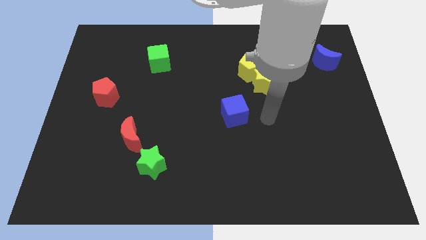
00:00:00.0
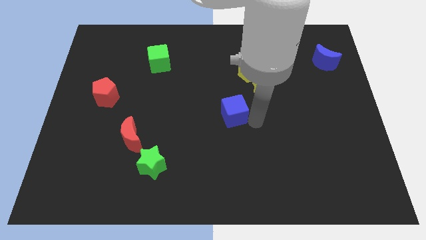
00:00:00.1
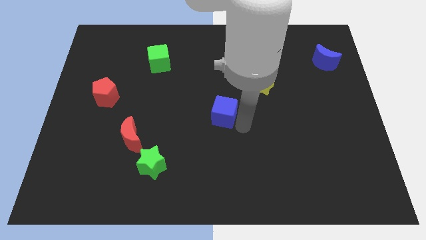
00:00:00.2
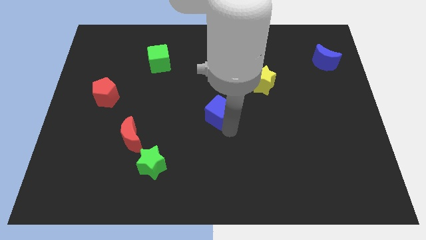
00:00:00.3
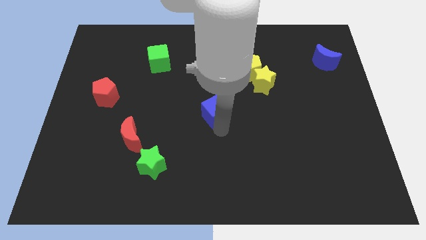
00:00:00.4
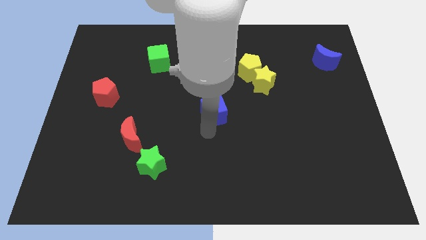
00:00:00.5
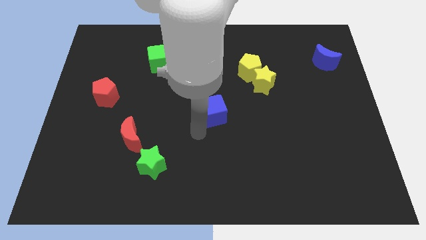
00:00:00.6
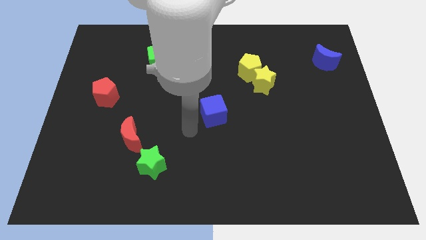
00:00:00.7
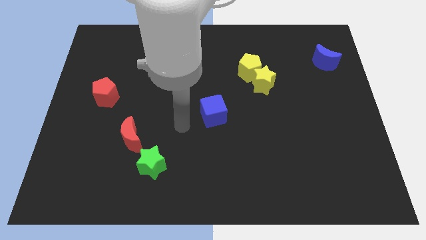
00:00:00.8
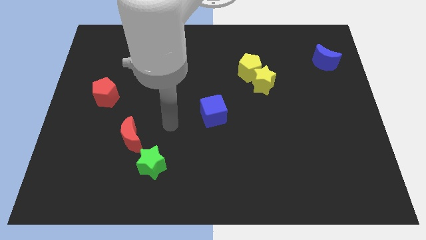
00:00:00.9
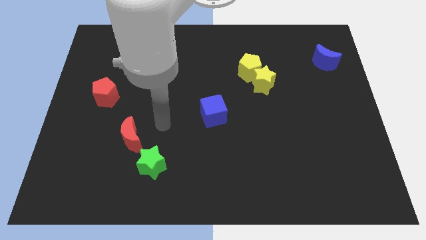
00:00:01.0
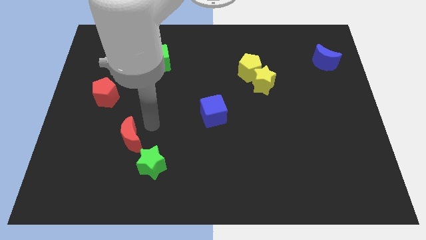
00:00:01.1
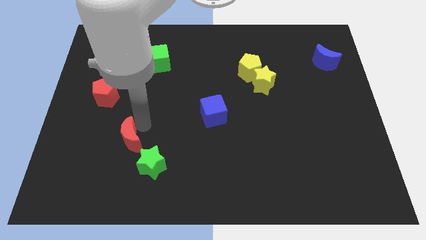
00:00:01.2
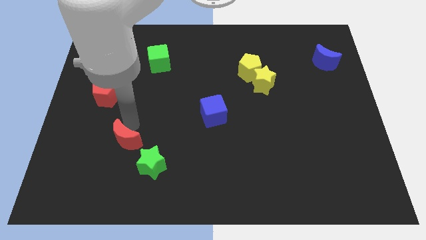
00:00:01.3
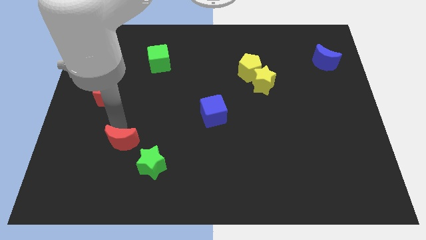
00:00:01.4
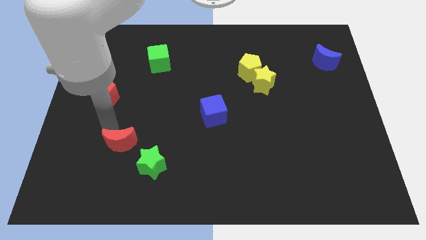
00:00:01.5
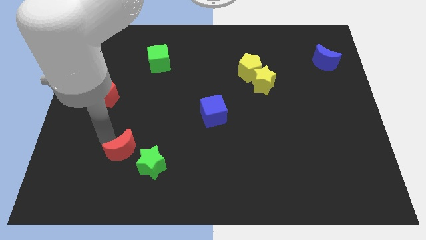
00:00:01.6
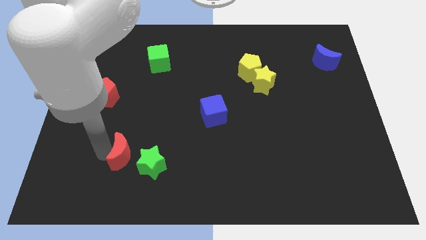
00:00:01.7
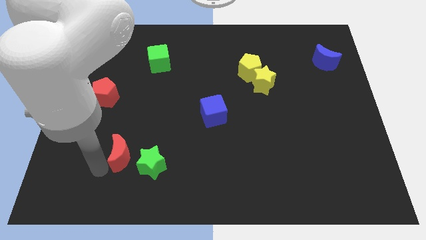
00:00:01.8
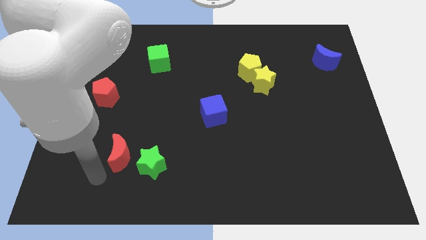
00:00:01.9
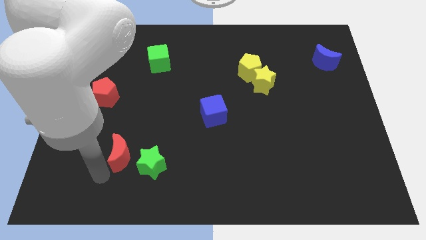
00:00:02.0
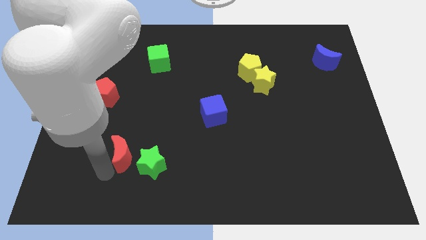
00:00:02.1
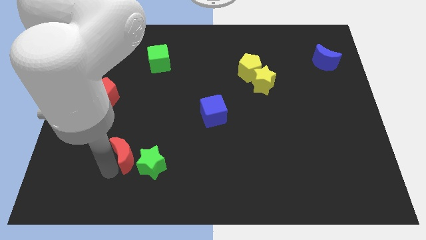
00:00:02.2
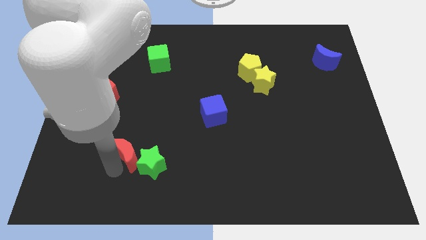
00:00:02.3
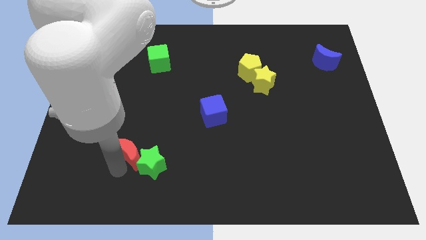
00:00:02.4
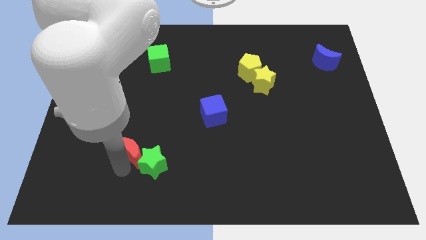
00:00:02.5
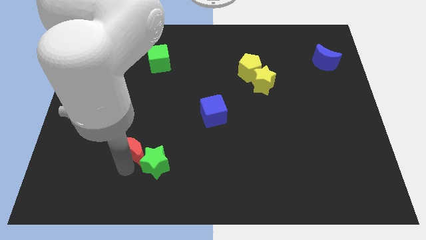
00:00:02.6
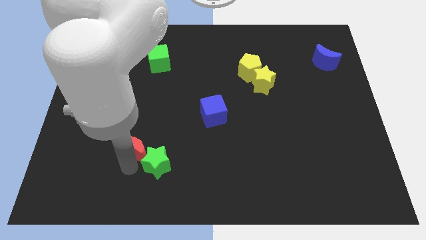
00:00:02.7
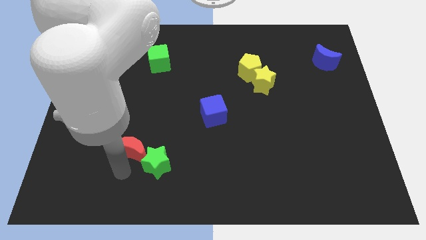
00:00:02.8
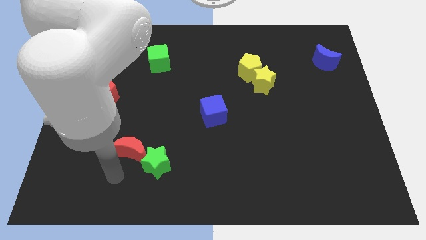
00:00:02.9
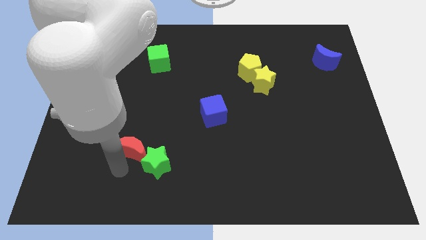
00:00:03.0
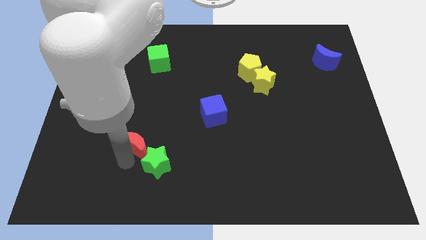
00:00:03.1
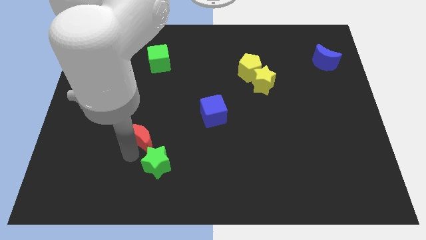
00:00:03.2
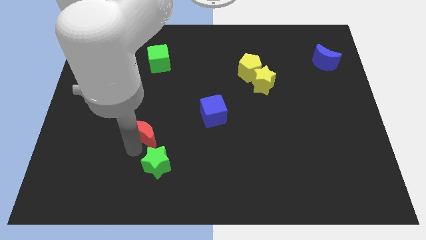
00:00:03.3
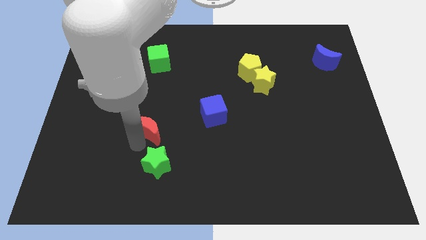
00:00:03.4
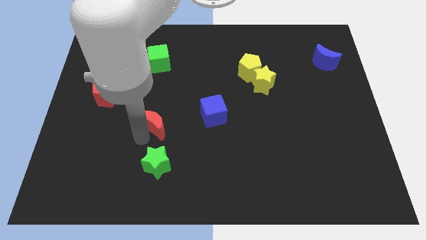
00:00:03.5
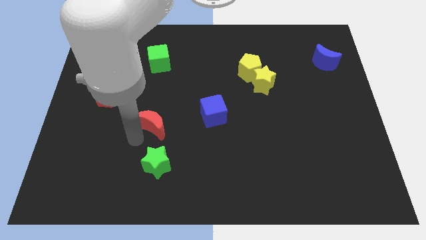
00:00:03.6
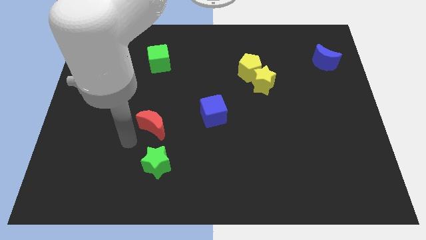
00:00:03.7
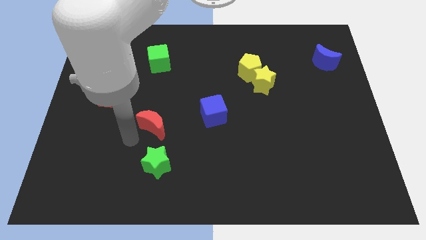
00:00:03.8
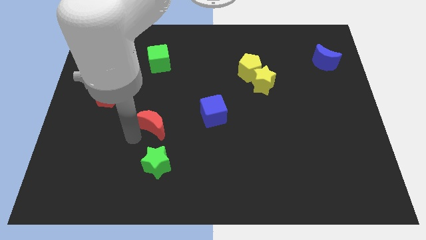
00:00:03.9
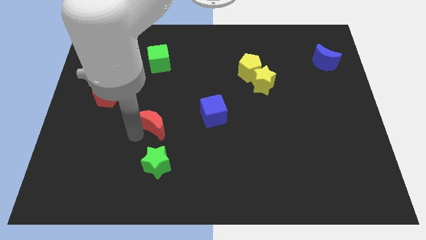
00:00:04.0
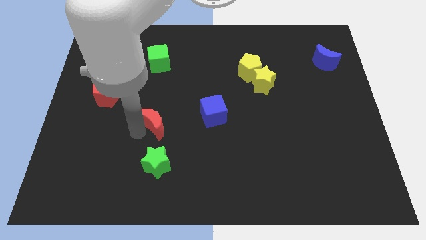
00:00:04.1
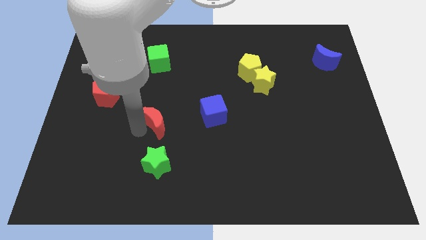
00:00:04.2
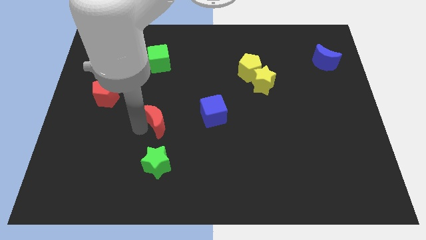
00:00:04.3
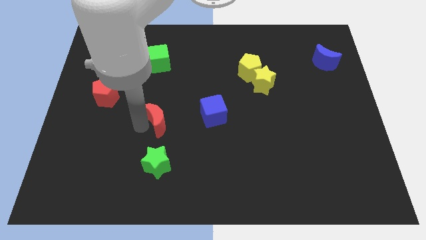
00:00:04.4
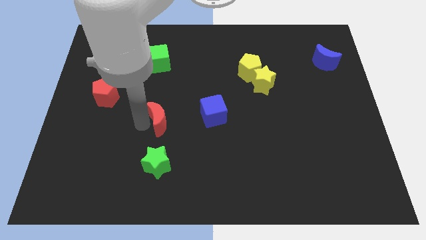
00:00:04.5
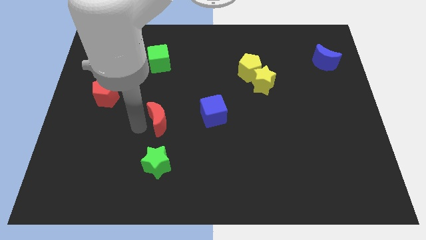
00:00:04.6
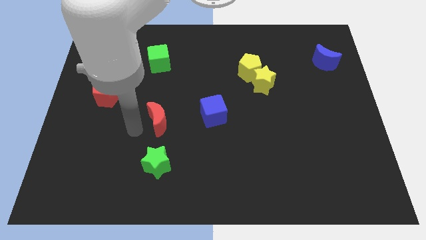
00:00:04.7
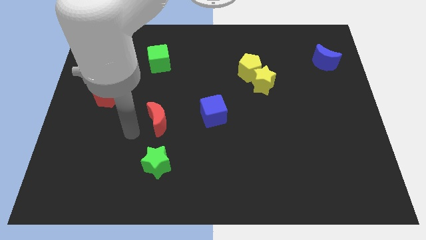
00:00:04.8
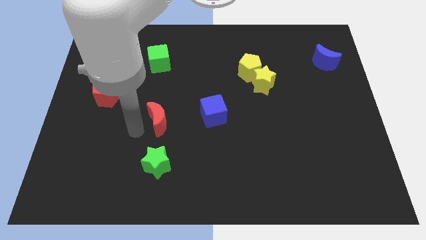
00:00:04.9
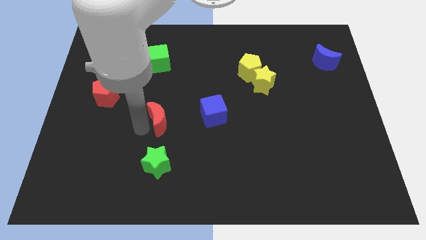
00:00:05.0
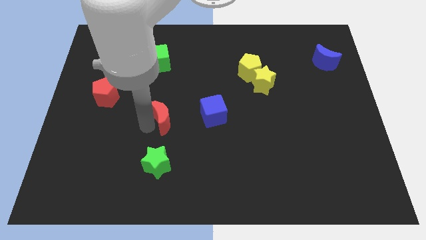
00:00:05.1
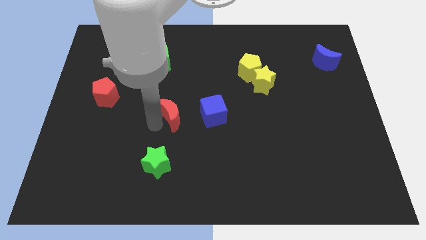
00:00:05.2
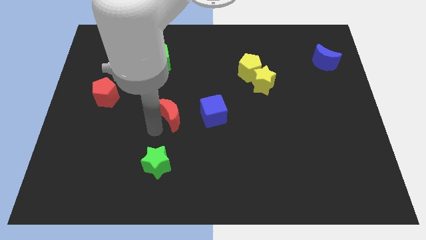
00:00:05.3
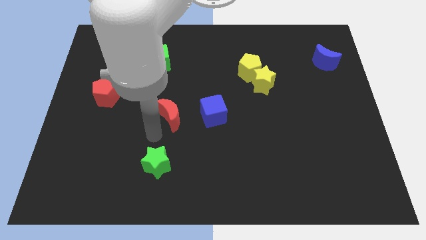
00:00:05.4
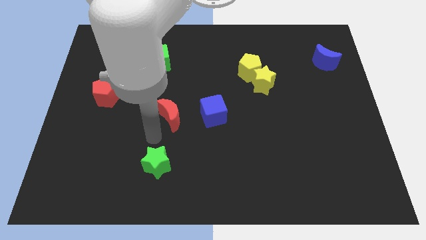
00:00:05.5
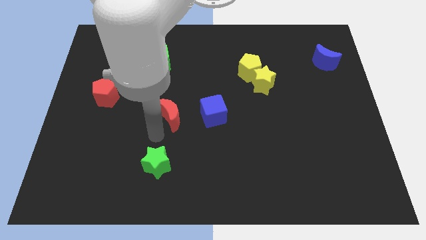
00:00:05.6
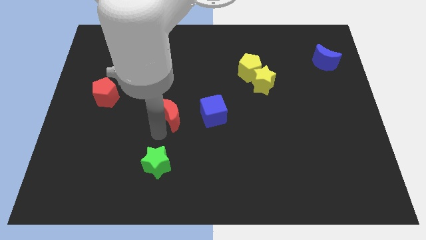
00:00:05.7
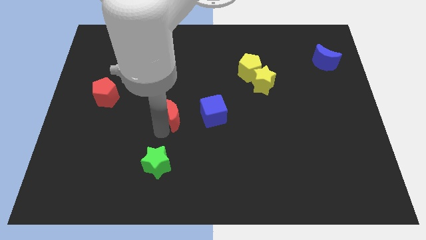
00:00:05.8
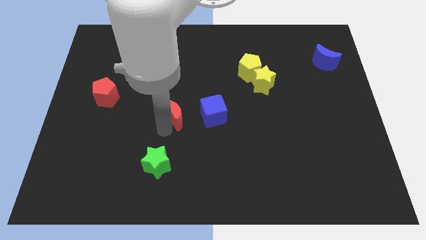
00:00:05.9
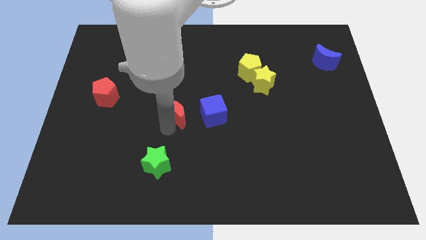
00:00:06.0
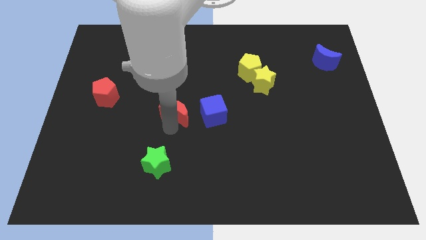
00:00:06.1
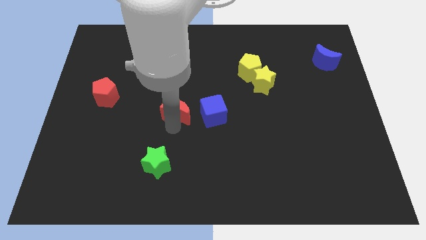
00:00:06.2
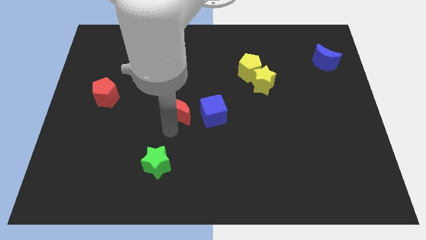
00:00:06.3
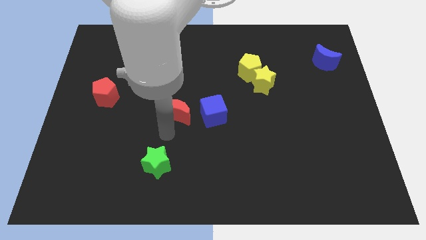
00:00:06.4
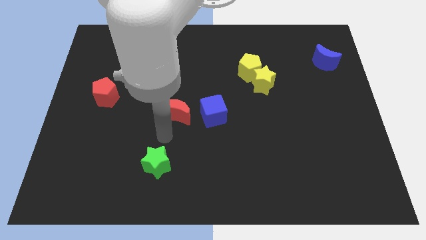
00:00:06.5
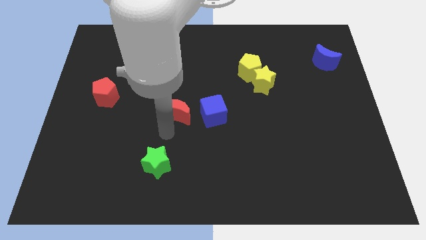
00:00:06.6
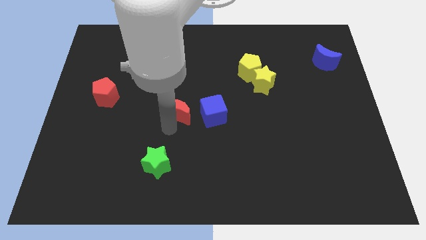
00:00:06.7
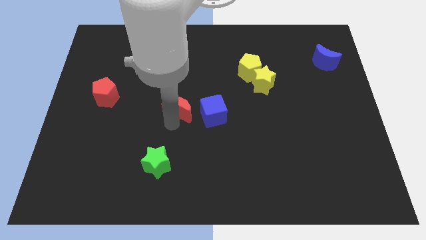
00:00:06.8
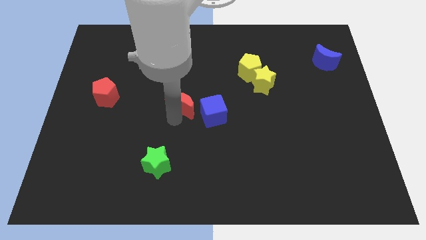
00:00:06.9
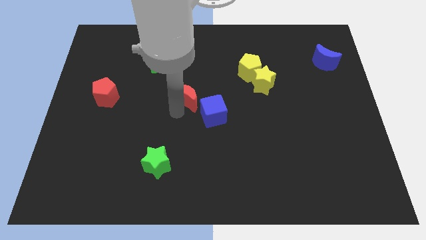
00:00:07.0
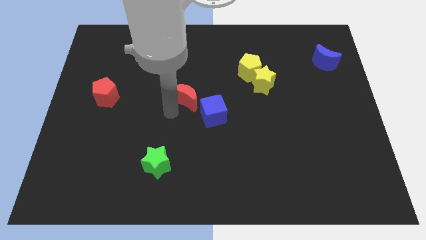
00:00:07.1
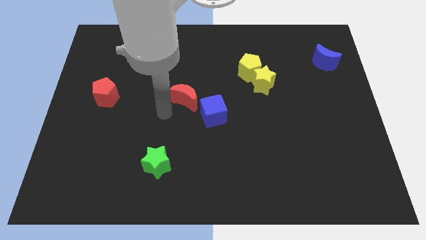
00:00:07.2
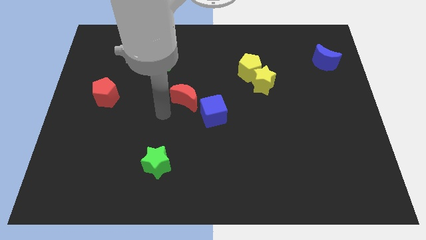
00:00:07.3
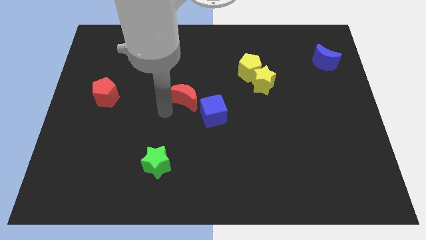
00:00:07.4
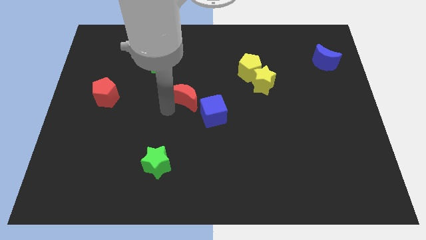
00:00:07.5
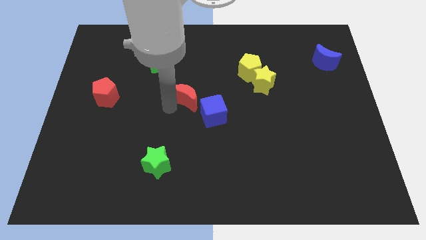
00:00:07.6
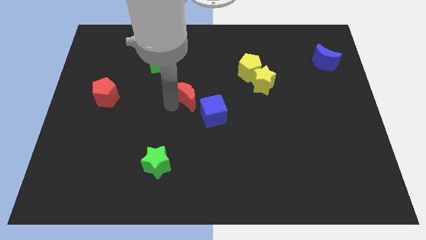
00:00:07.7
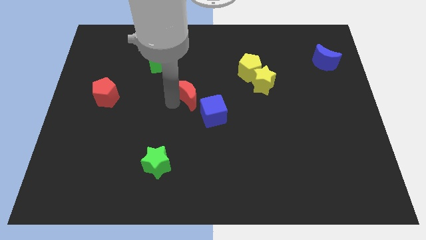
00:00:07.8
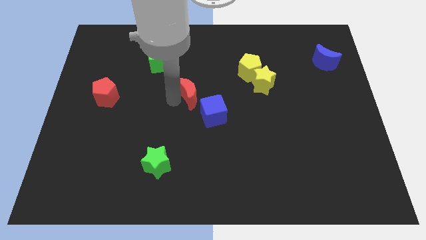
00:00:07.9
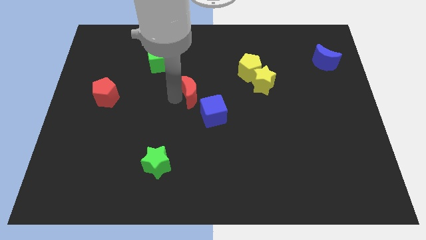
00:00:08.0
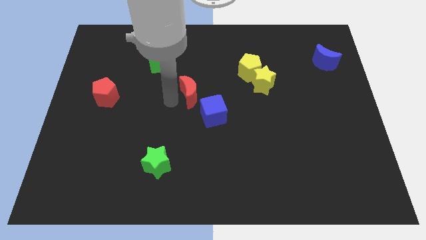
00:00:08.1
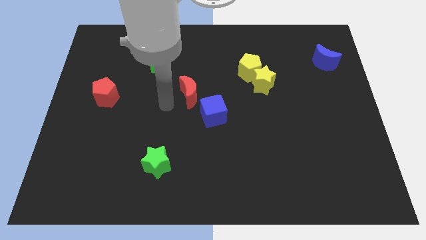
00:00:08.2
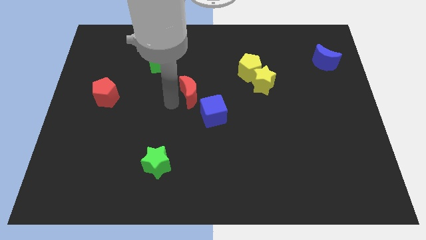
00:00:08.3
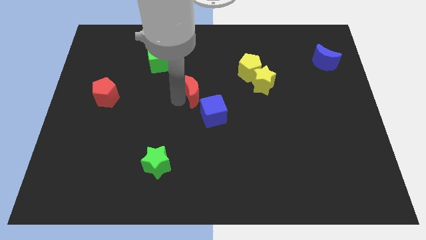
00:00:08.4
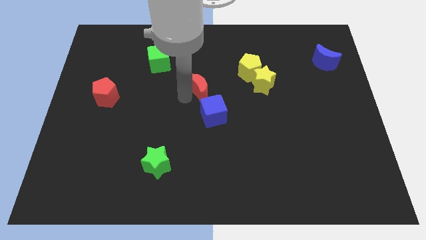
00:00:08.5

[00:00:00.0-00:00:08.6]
push the red moon up and to the right diagonally
